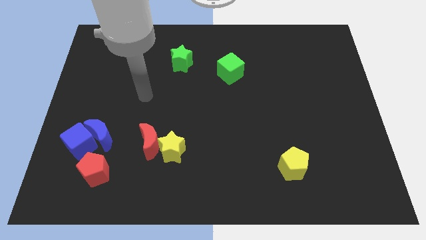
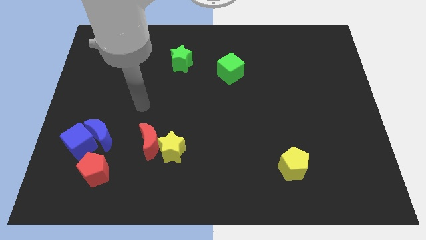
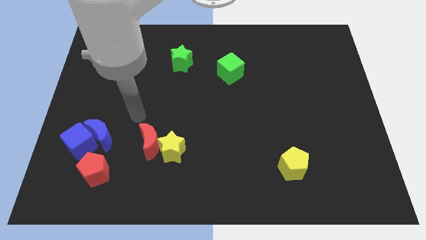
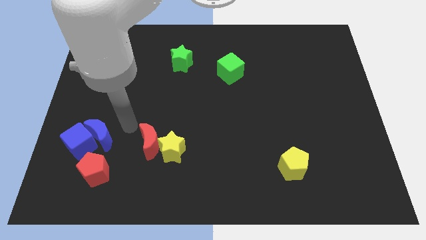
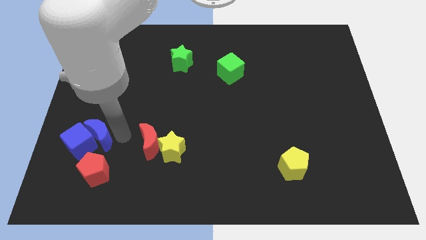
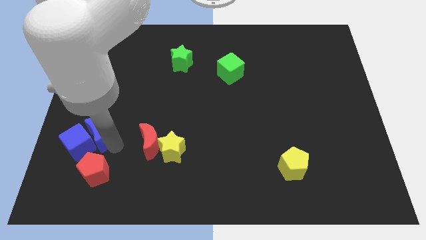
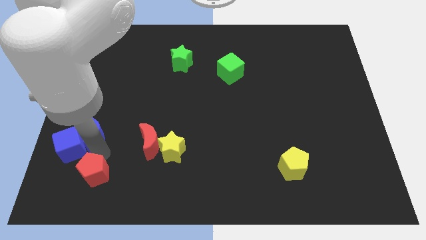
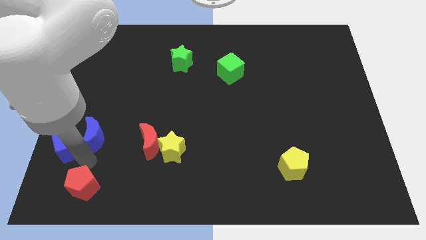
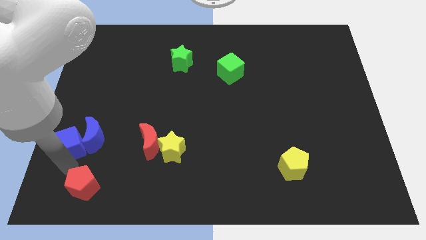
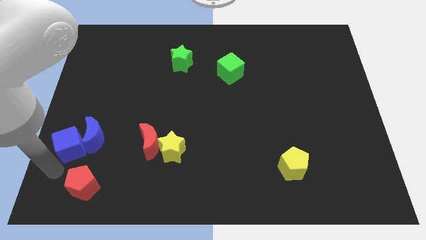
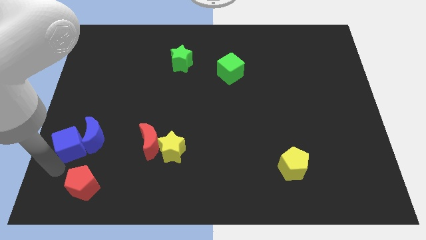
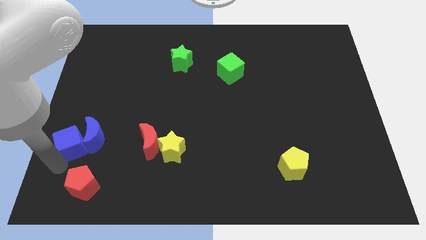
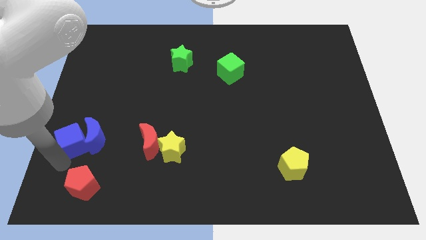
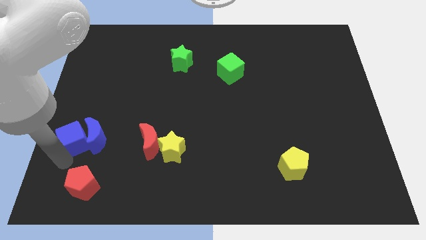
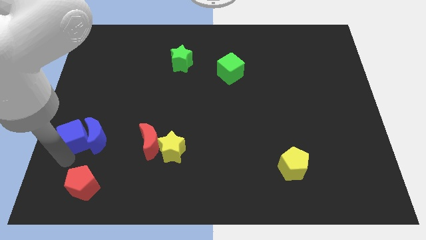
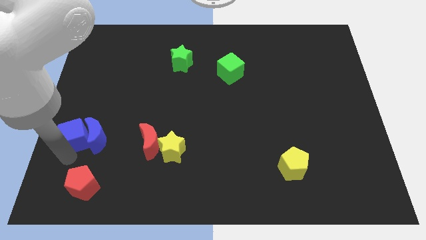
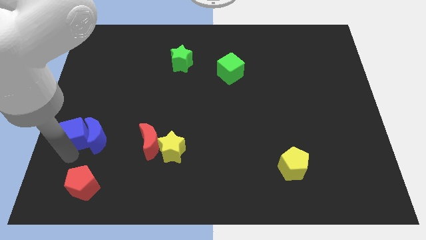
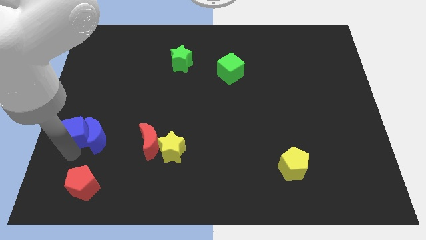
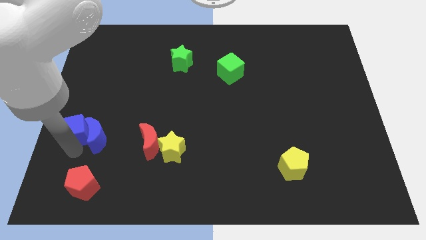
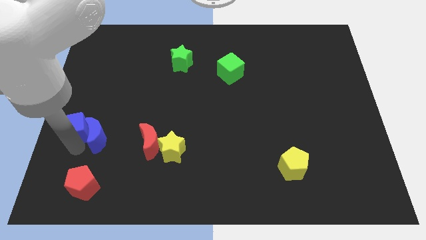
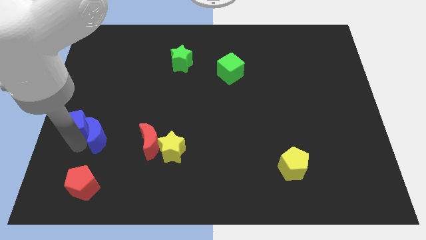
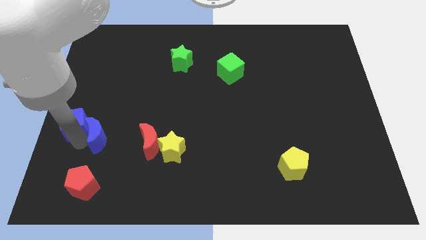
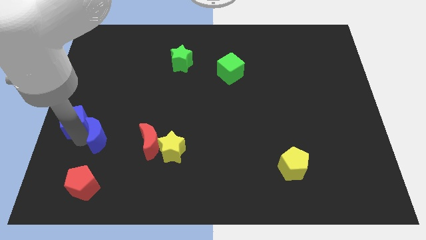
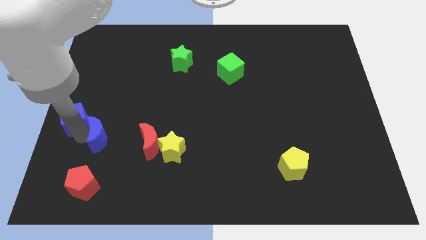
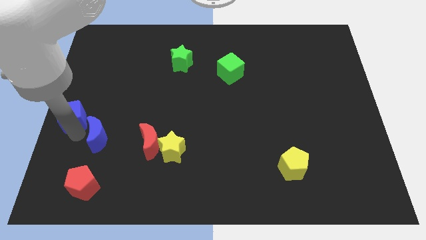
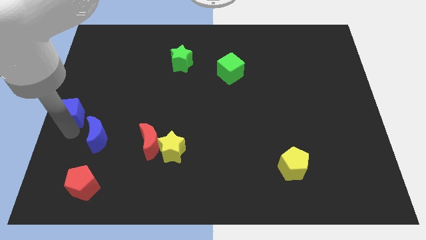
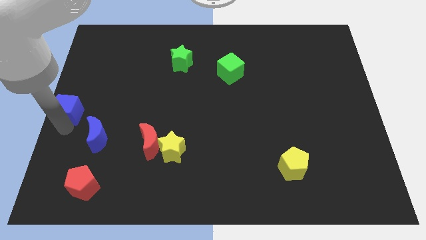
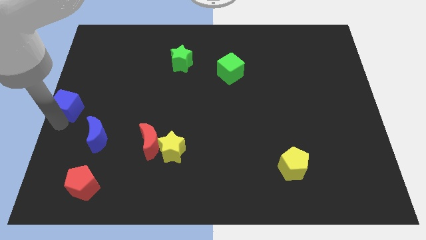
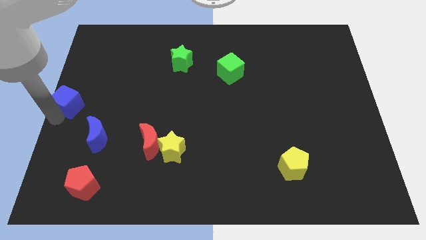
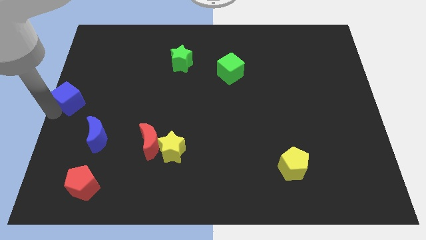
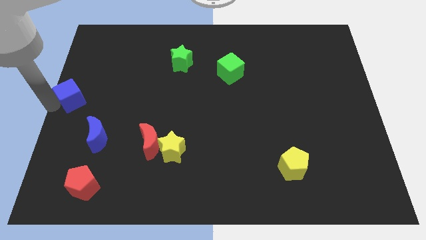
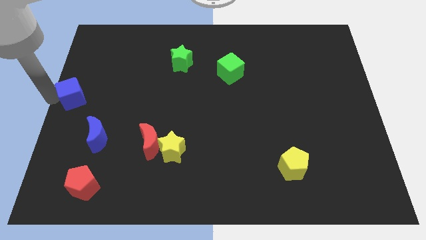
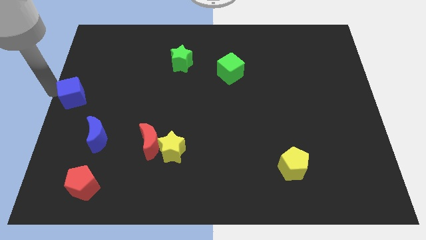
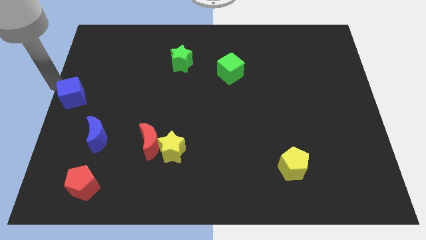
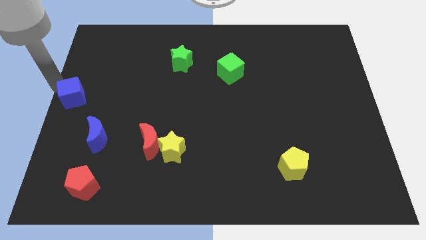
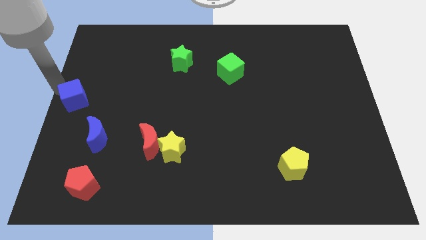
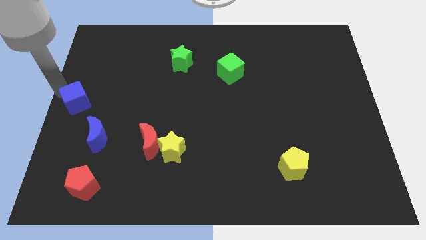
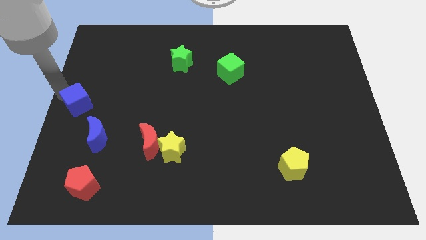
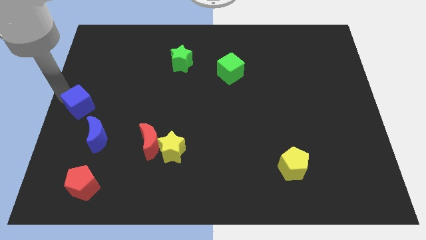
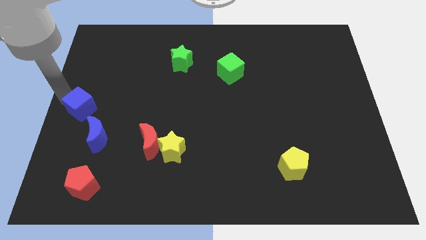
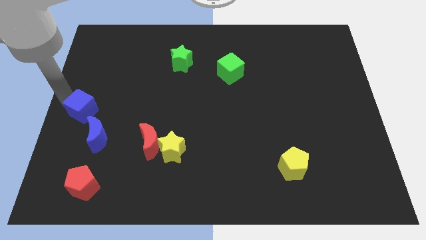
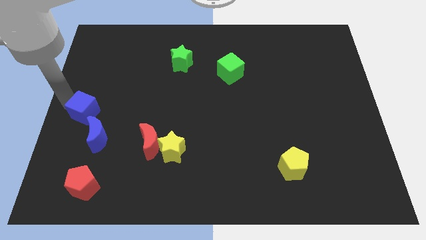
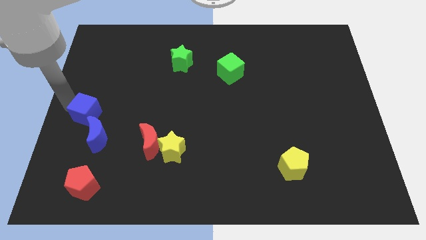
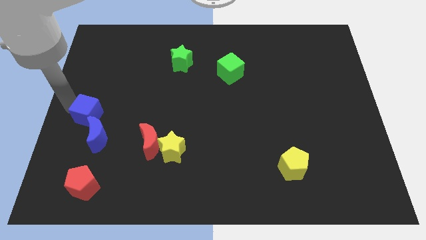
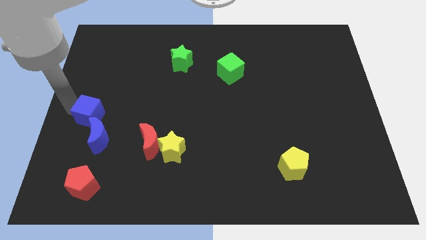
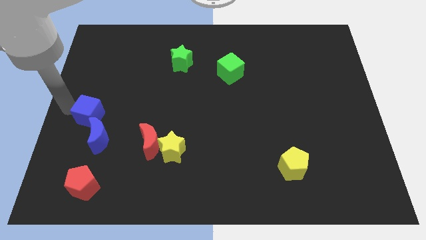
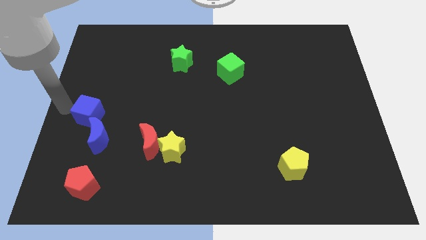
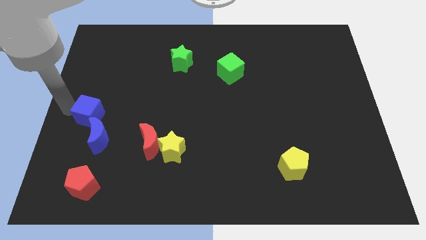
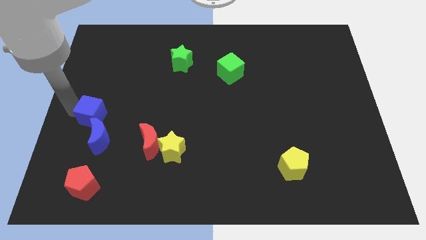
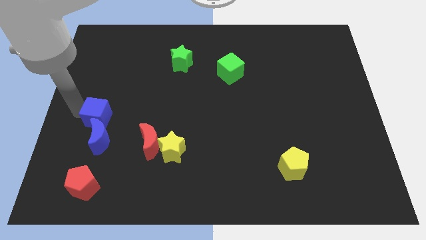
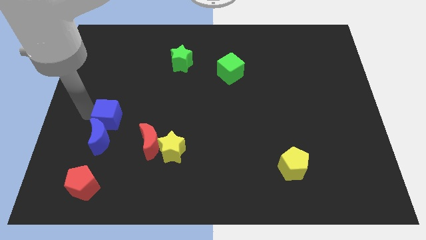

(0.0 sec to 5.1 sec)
move the blue cube diagonally up and to the left of the red moon

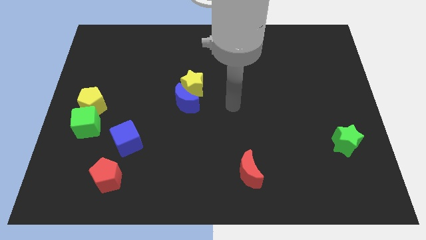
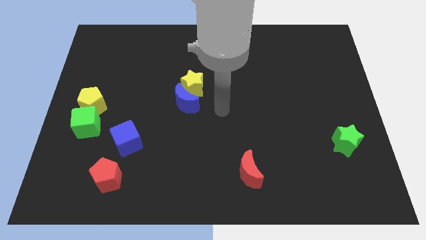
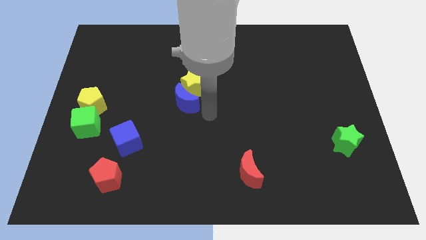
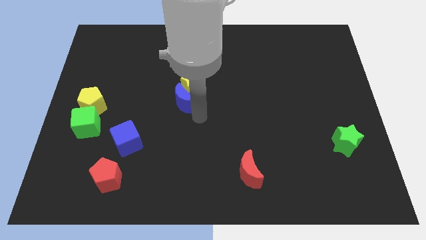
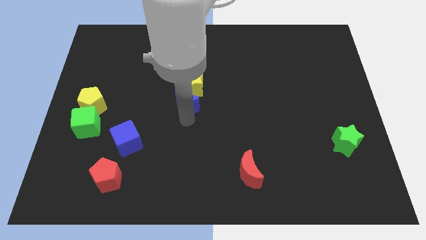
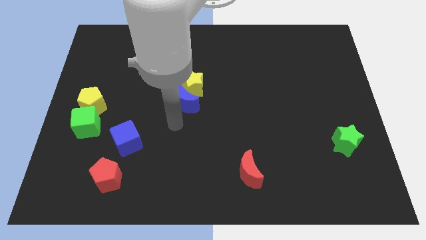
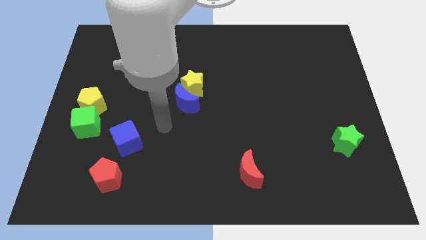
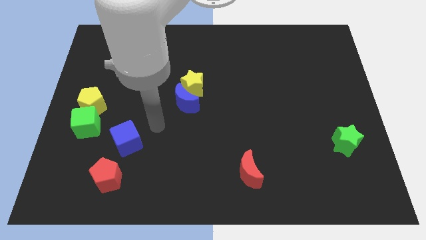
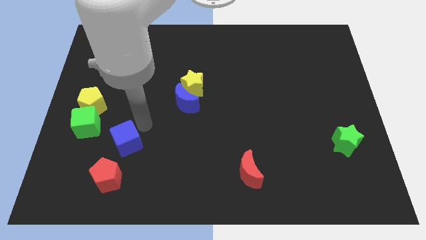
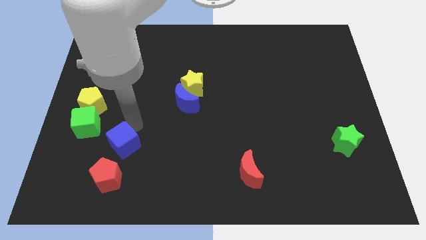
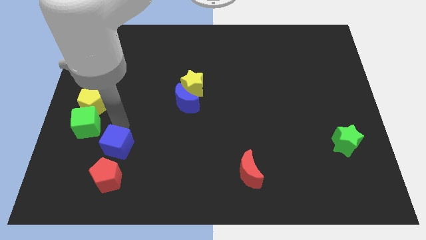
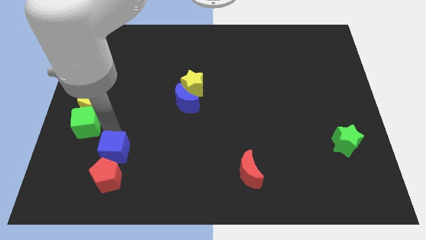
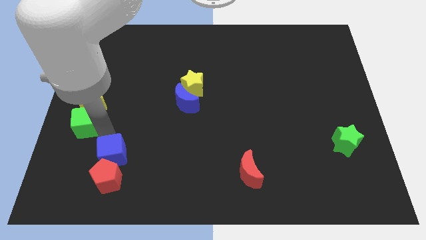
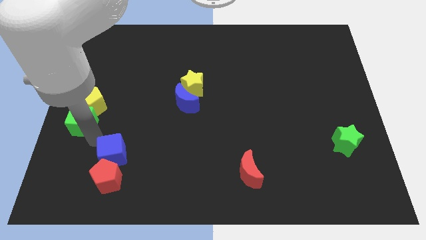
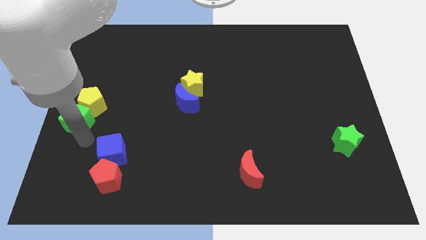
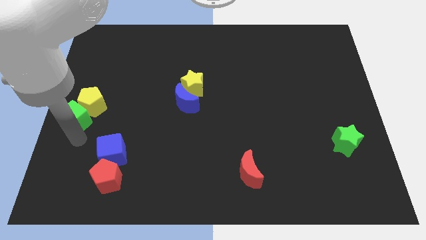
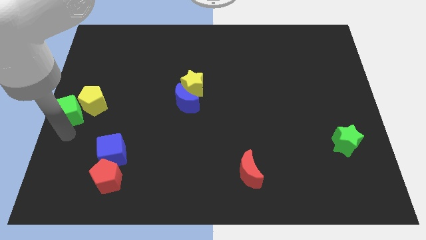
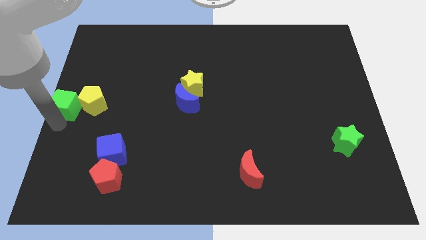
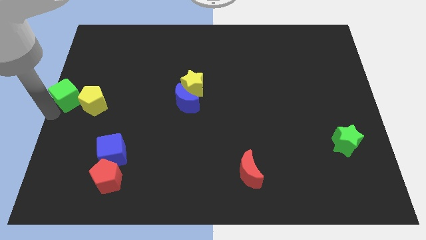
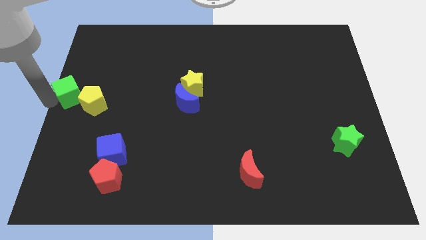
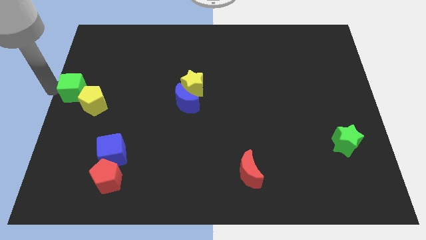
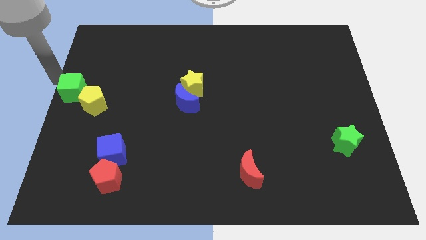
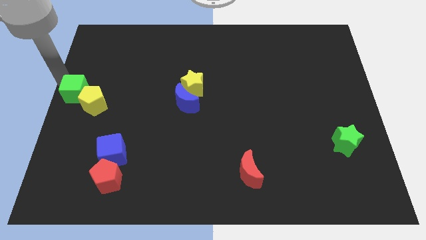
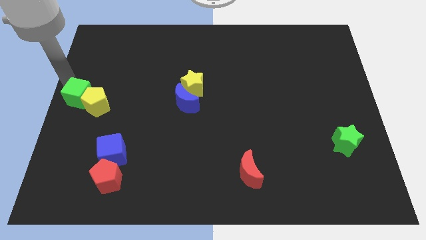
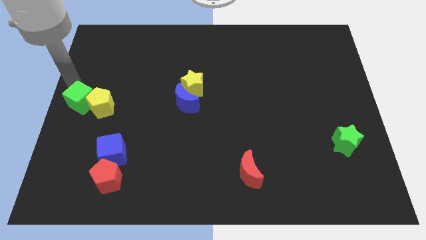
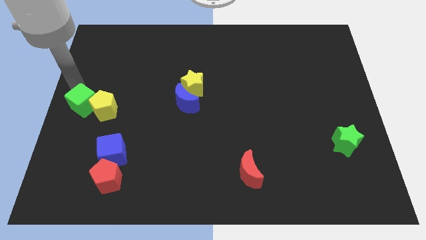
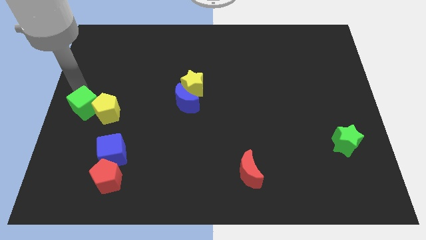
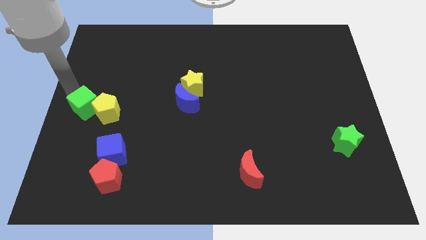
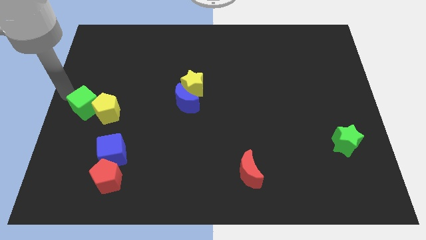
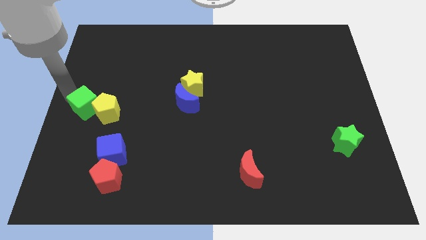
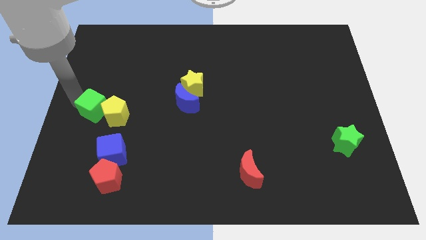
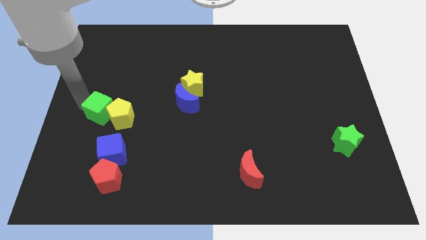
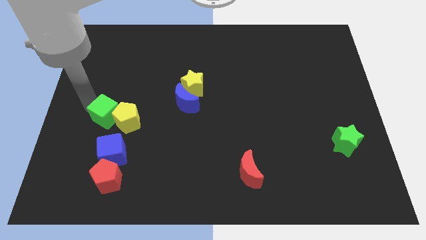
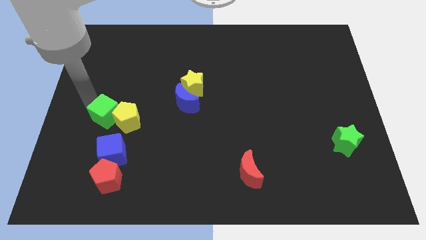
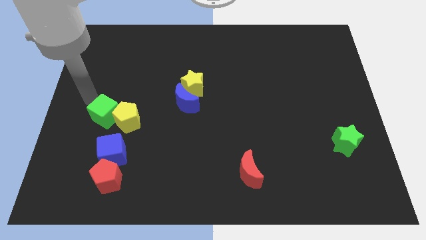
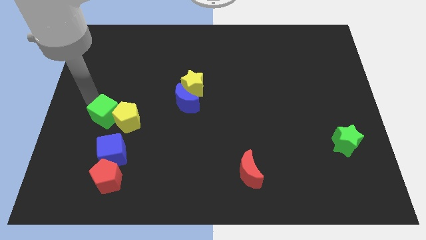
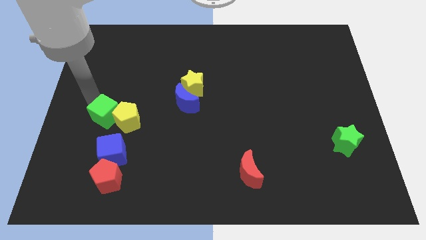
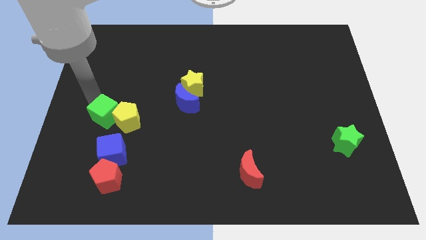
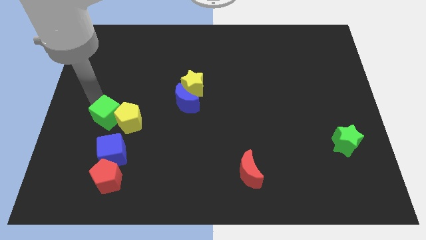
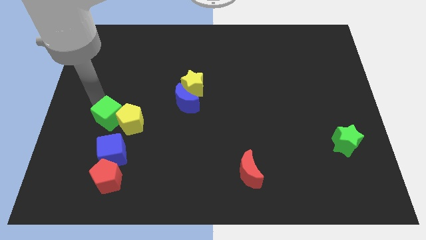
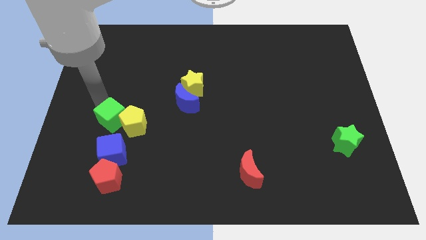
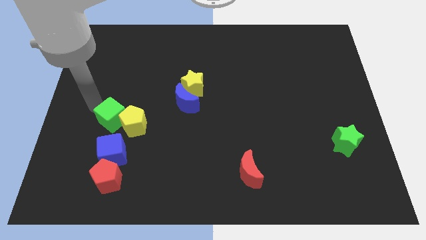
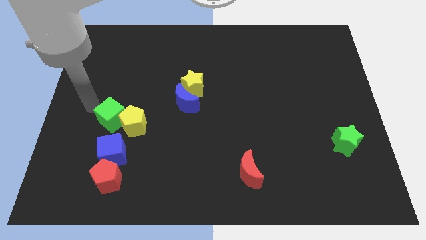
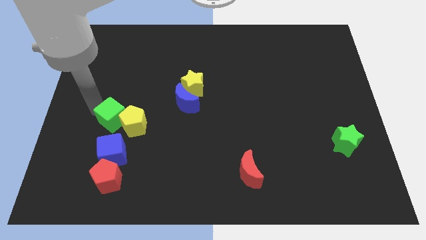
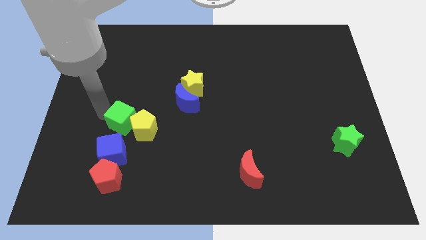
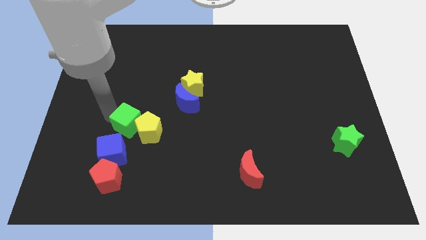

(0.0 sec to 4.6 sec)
push the green cube to the top right of the blue cube
